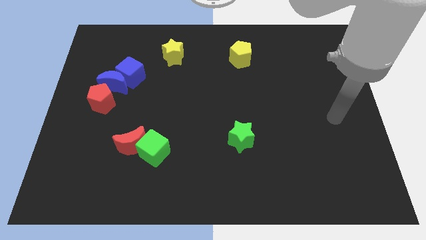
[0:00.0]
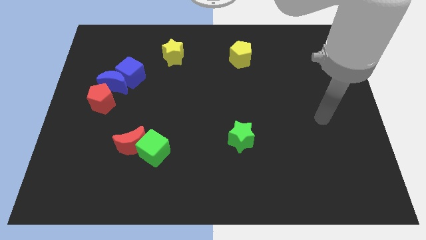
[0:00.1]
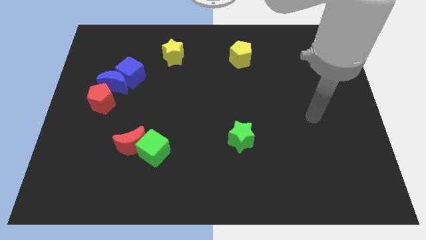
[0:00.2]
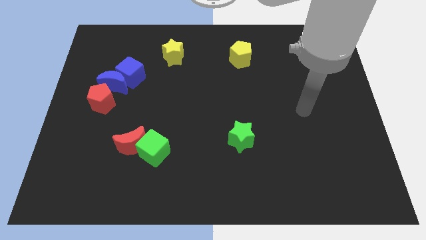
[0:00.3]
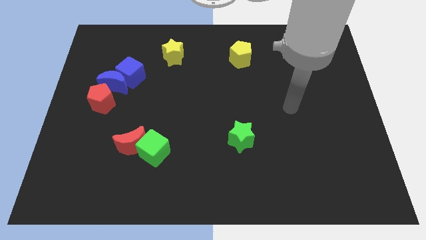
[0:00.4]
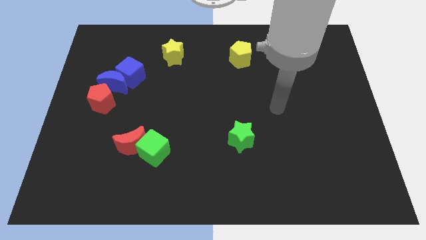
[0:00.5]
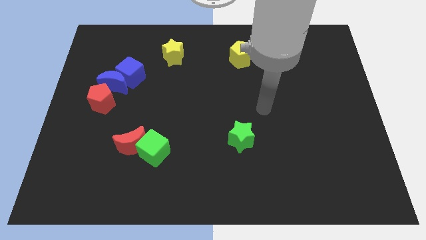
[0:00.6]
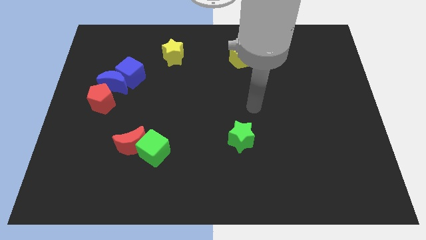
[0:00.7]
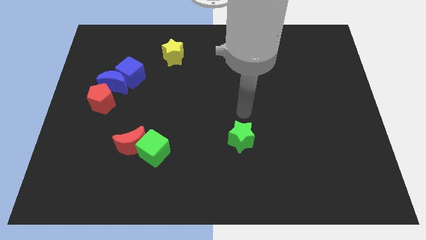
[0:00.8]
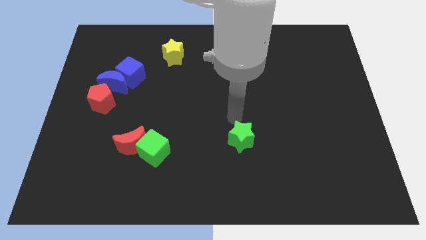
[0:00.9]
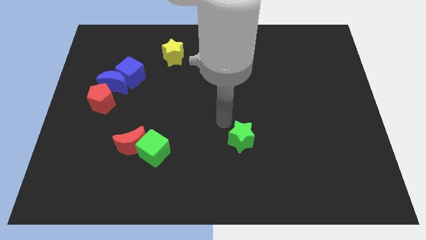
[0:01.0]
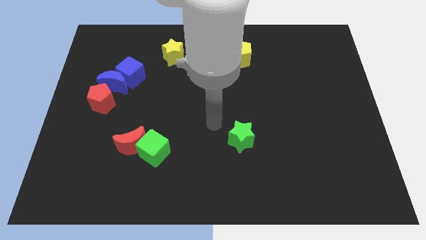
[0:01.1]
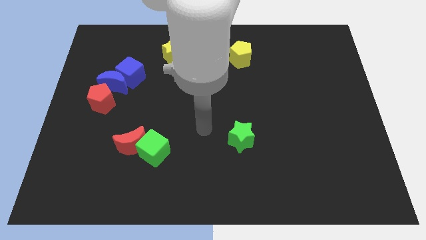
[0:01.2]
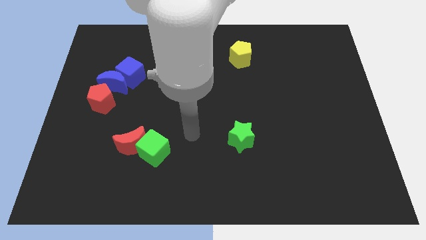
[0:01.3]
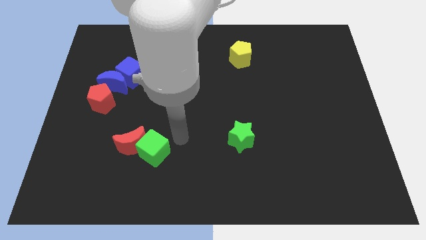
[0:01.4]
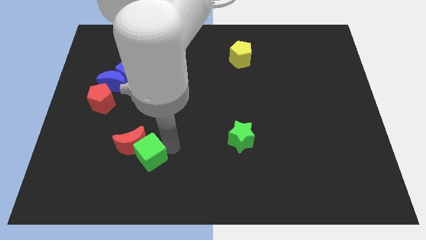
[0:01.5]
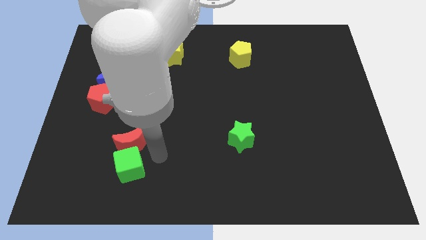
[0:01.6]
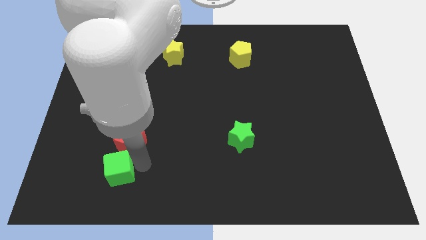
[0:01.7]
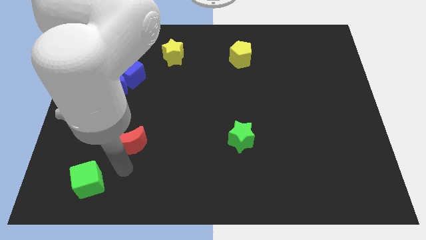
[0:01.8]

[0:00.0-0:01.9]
move the red moon away from the green cube

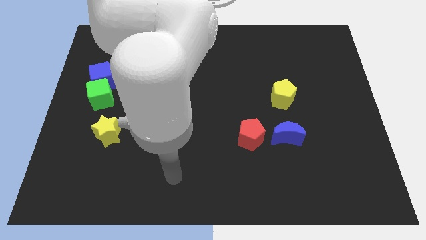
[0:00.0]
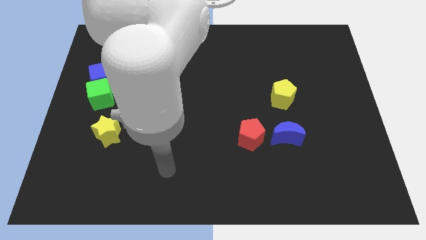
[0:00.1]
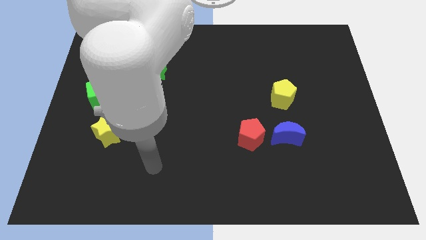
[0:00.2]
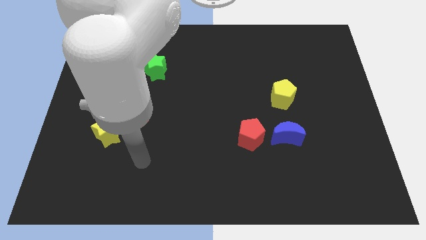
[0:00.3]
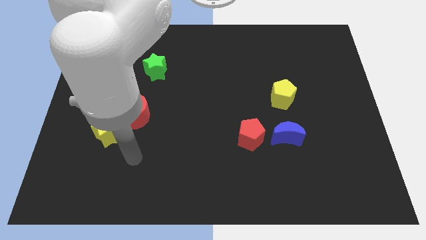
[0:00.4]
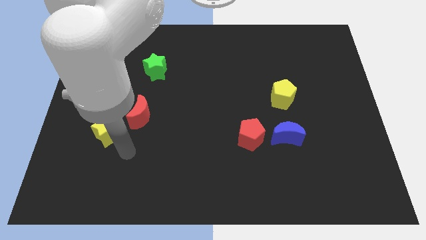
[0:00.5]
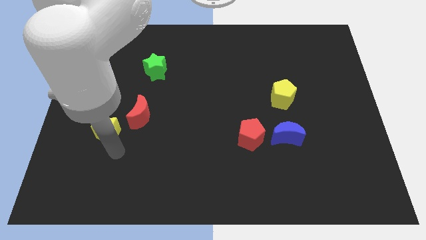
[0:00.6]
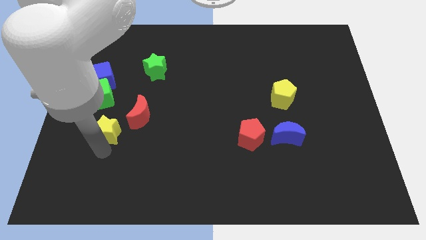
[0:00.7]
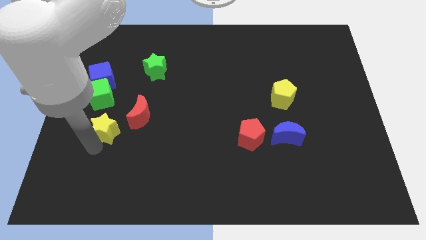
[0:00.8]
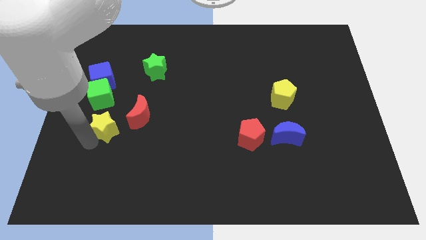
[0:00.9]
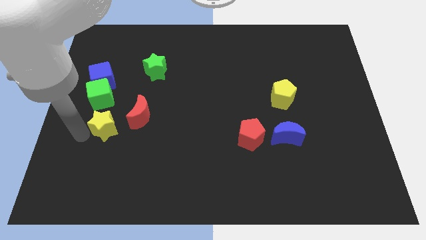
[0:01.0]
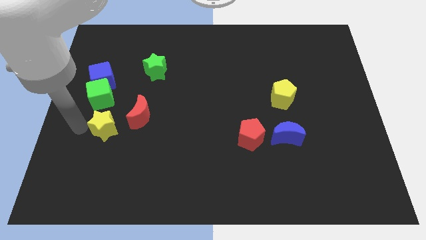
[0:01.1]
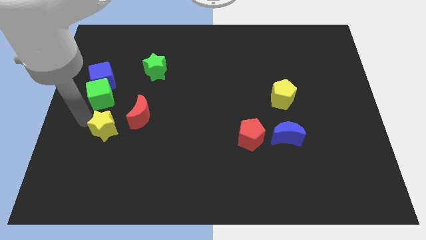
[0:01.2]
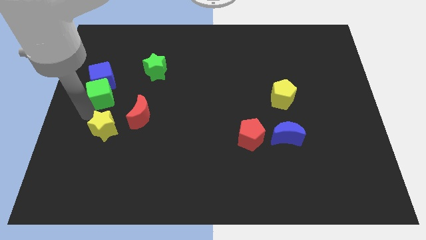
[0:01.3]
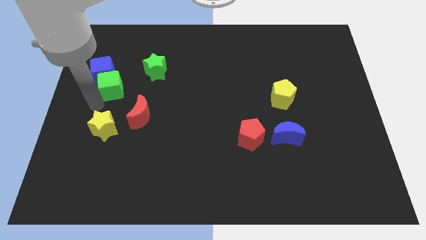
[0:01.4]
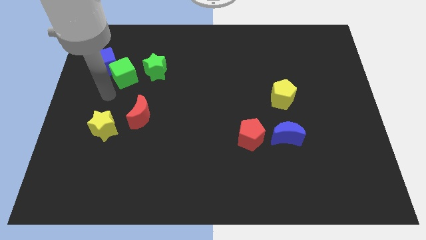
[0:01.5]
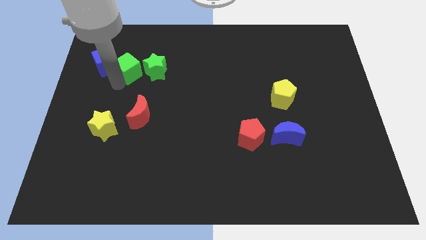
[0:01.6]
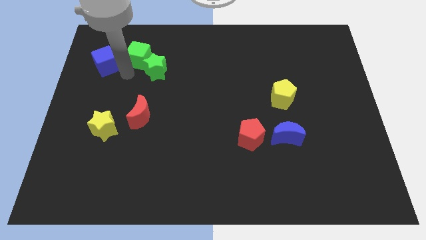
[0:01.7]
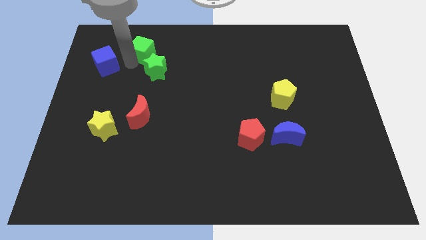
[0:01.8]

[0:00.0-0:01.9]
separate the blue cube from the green cube

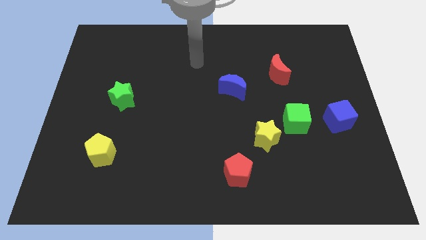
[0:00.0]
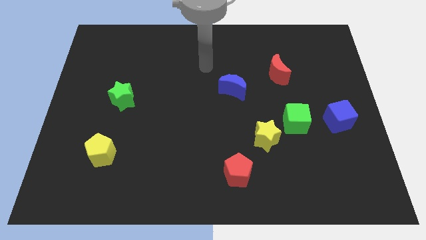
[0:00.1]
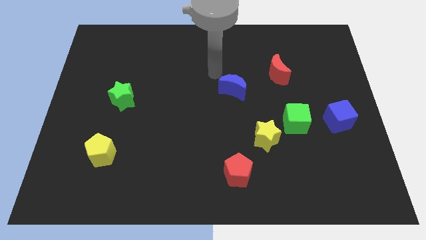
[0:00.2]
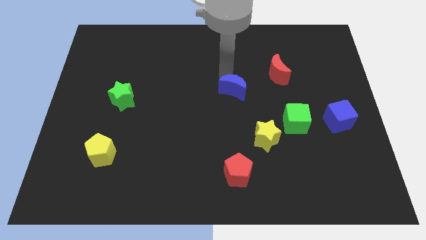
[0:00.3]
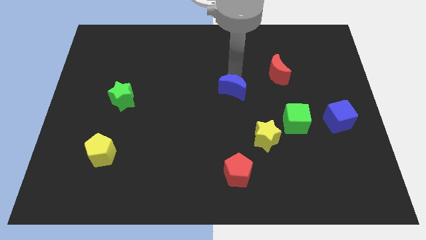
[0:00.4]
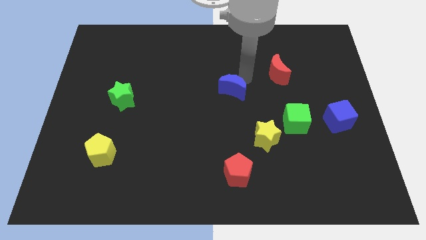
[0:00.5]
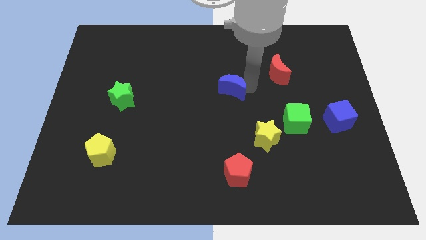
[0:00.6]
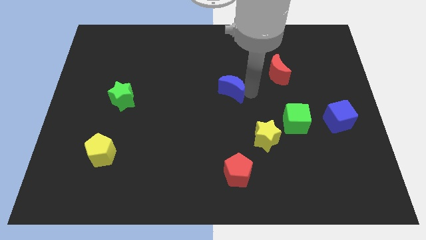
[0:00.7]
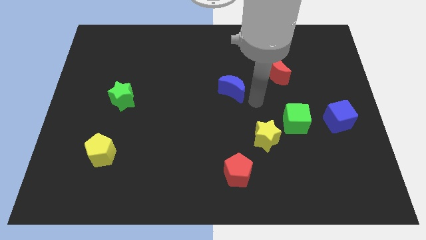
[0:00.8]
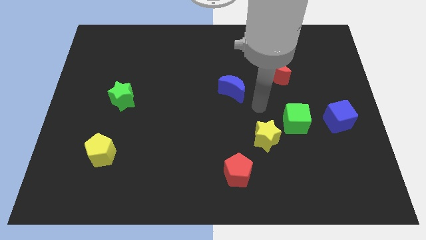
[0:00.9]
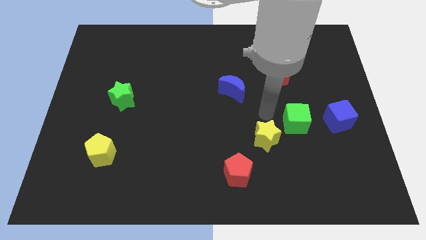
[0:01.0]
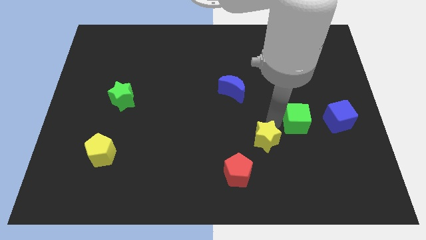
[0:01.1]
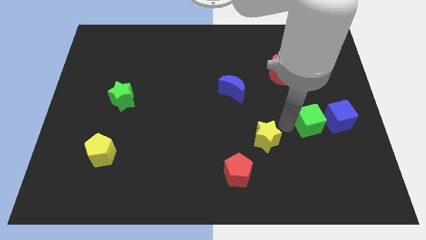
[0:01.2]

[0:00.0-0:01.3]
separate the yellow star from the green cube

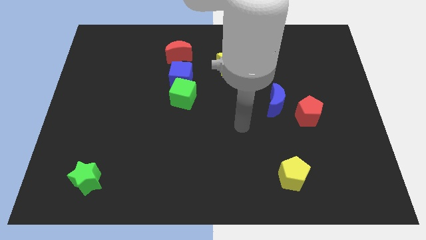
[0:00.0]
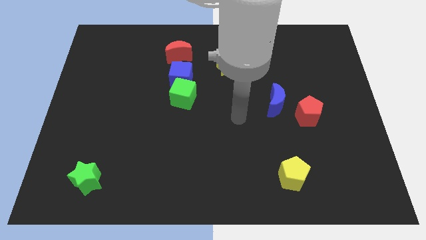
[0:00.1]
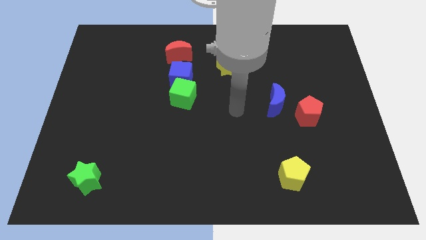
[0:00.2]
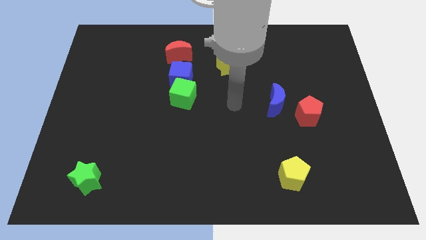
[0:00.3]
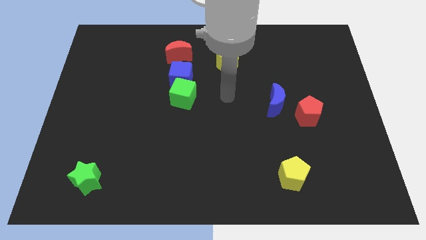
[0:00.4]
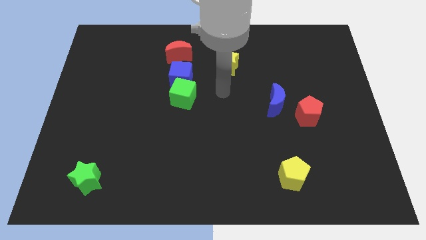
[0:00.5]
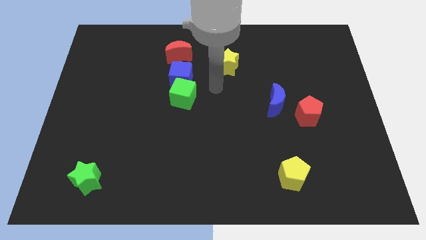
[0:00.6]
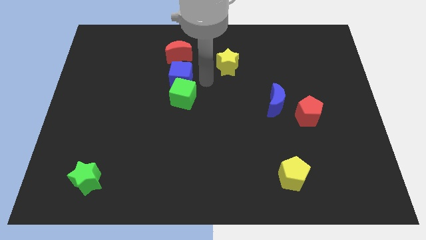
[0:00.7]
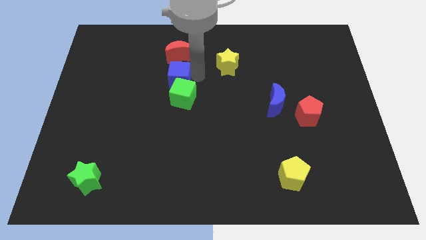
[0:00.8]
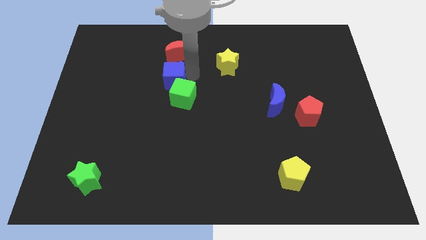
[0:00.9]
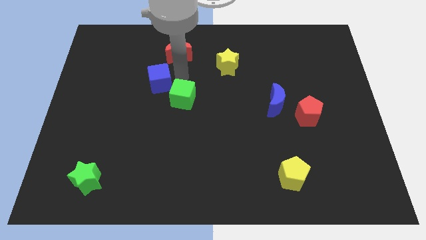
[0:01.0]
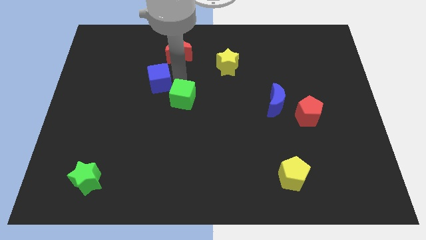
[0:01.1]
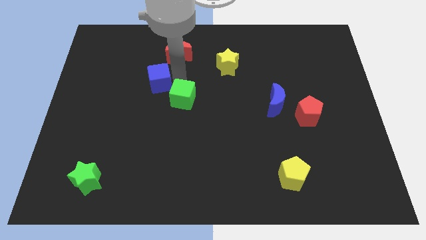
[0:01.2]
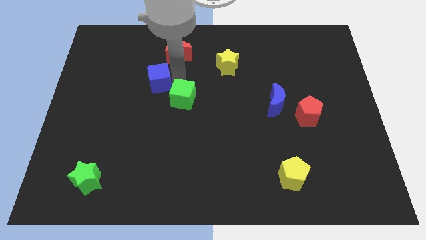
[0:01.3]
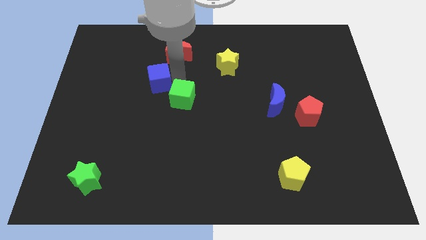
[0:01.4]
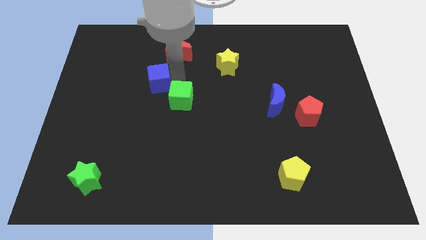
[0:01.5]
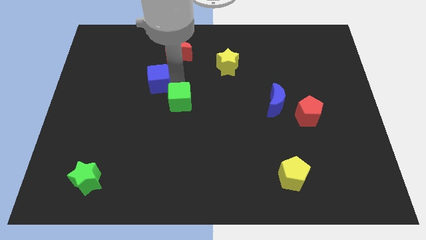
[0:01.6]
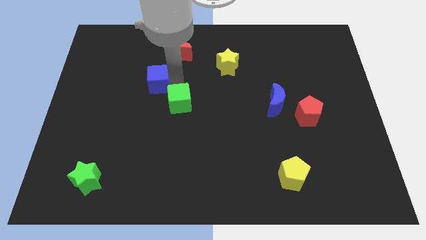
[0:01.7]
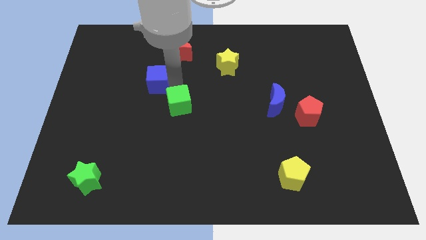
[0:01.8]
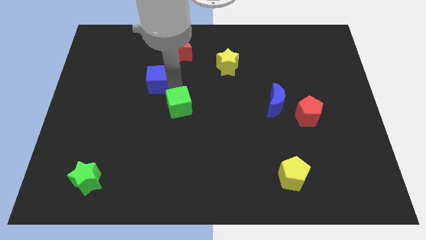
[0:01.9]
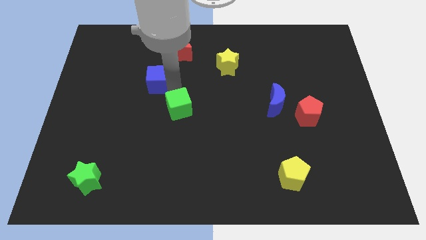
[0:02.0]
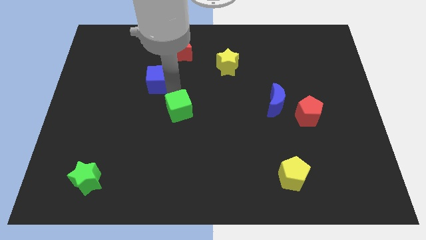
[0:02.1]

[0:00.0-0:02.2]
pull the green cube apart from the blue cube

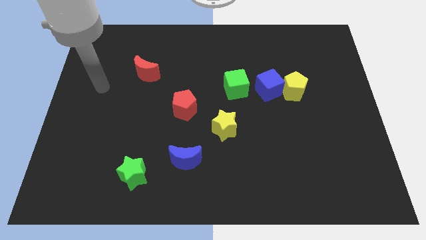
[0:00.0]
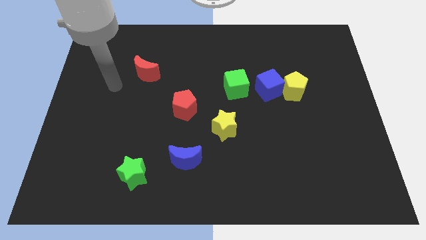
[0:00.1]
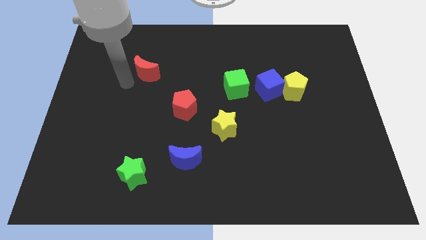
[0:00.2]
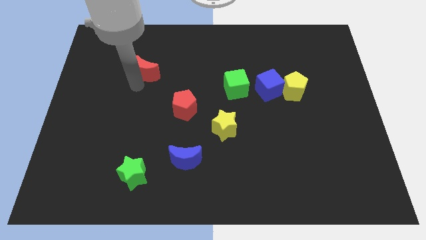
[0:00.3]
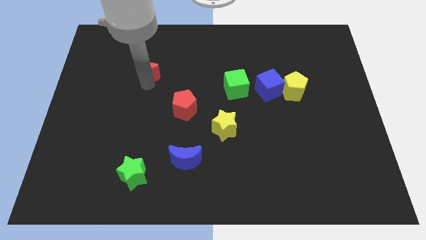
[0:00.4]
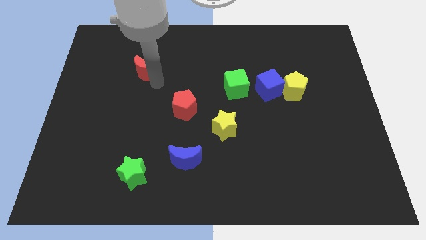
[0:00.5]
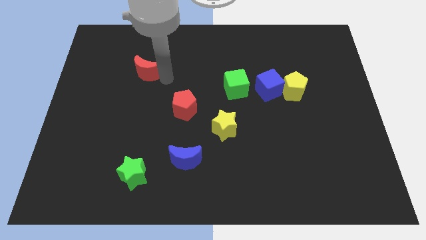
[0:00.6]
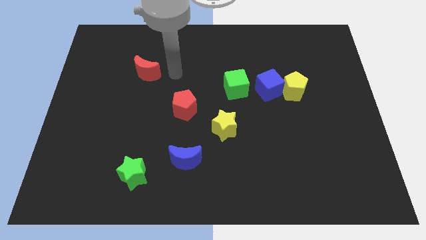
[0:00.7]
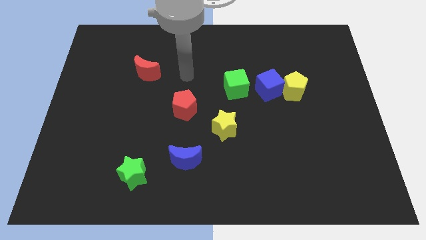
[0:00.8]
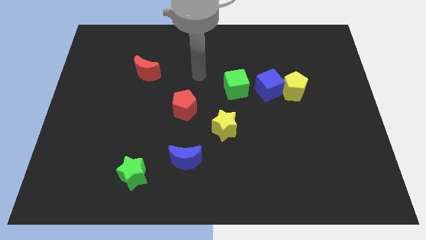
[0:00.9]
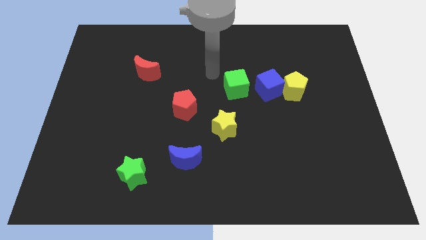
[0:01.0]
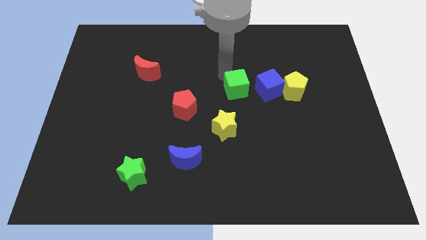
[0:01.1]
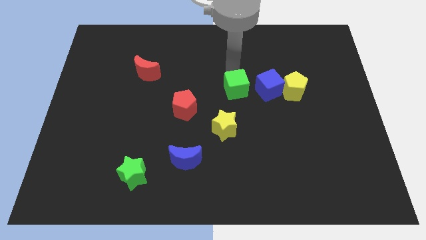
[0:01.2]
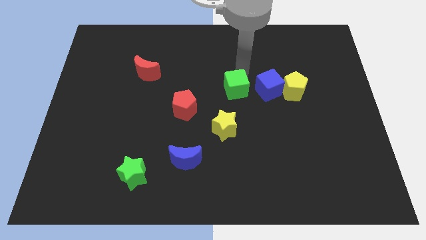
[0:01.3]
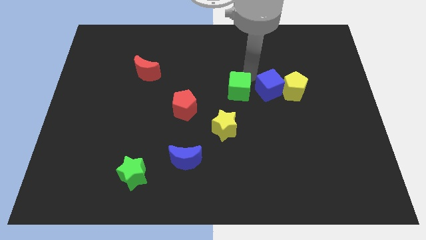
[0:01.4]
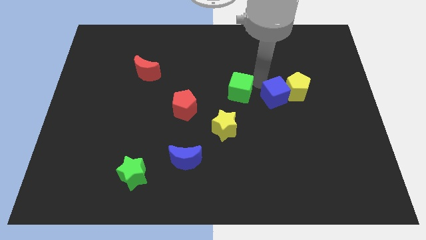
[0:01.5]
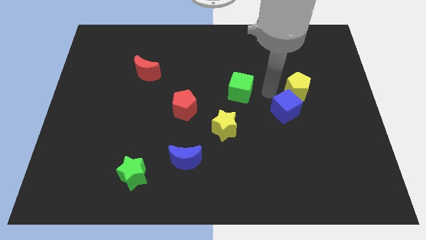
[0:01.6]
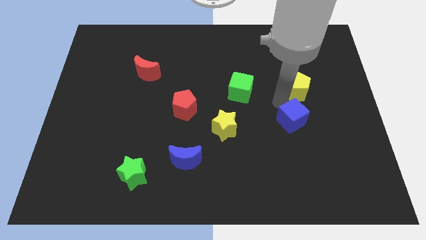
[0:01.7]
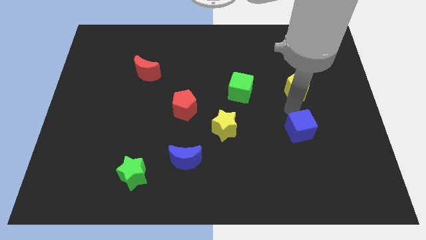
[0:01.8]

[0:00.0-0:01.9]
move the yellow pentagon away from the blue cube
